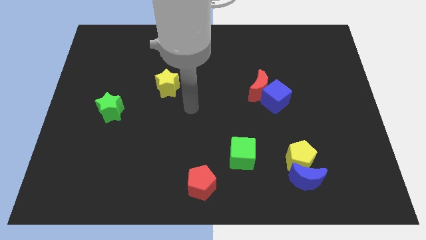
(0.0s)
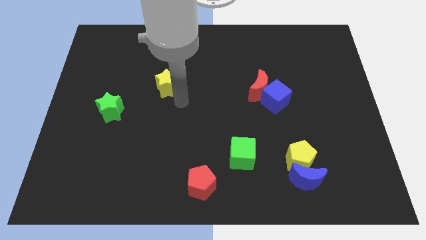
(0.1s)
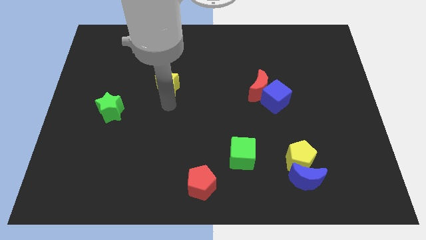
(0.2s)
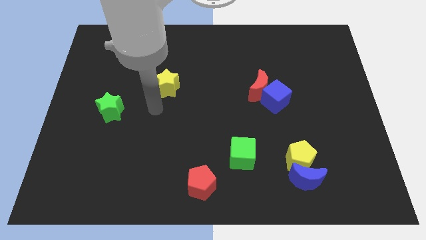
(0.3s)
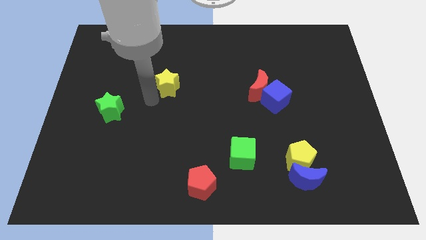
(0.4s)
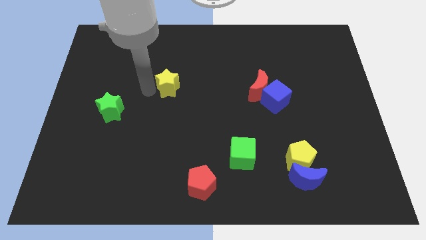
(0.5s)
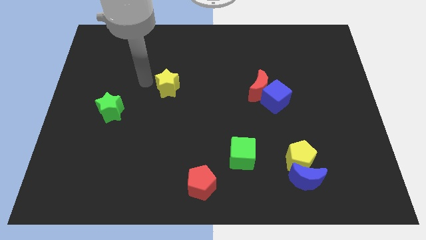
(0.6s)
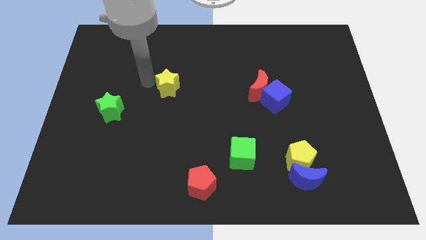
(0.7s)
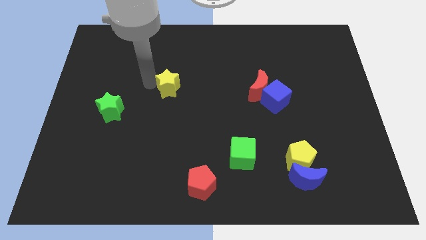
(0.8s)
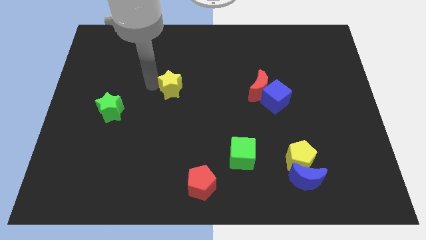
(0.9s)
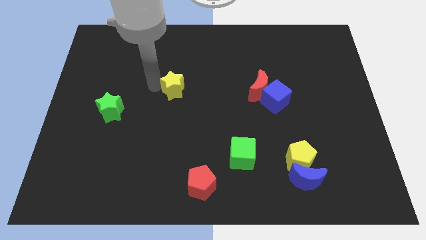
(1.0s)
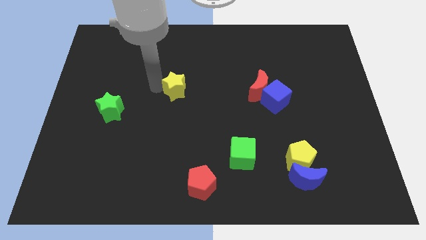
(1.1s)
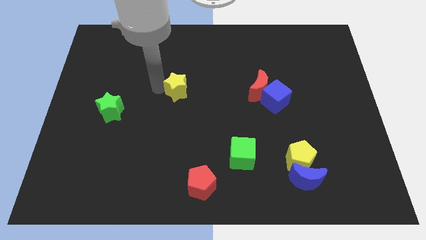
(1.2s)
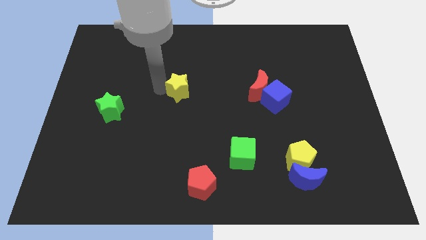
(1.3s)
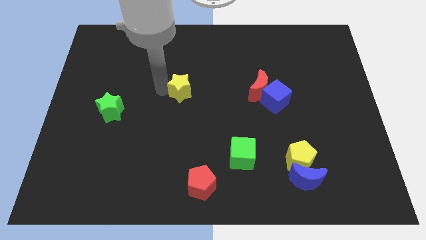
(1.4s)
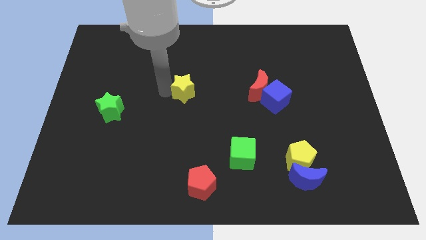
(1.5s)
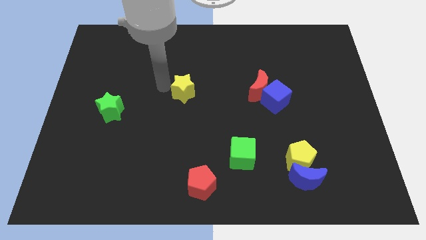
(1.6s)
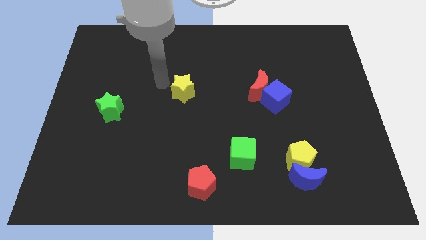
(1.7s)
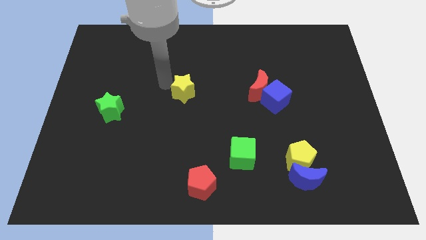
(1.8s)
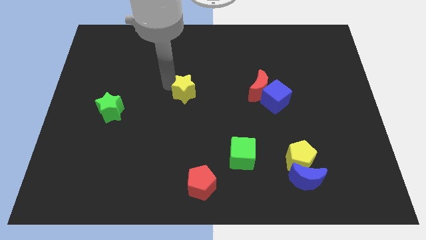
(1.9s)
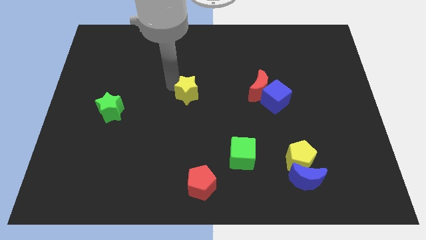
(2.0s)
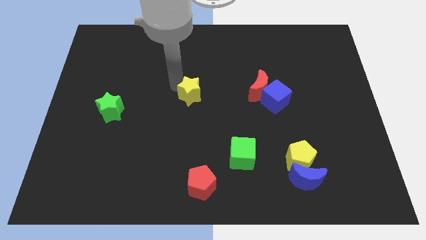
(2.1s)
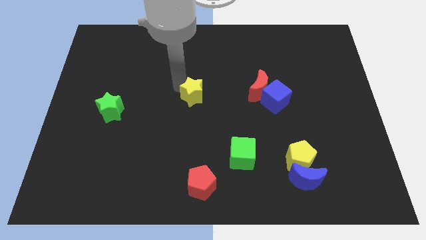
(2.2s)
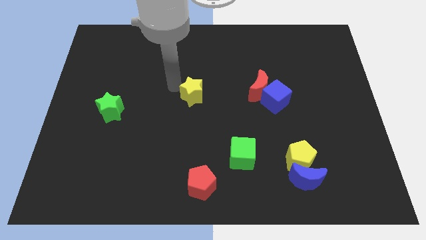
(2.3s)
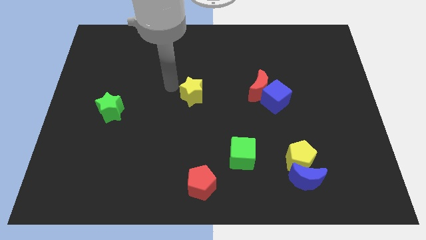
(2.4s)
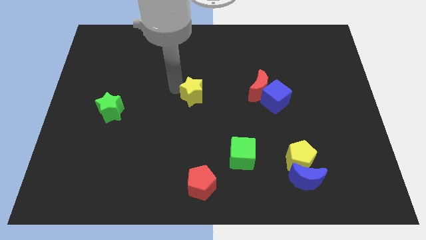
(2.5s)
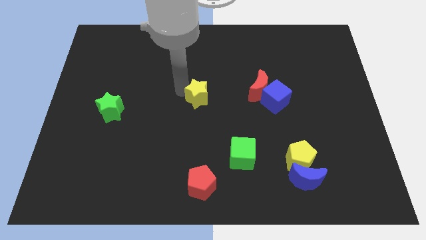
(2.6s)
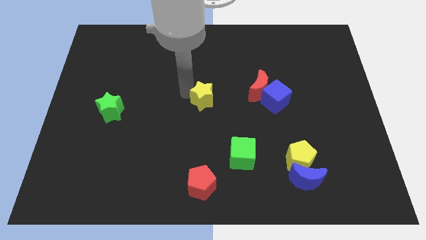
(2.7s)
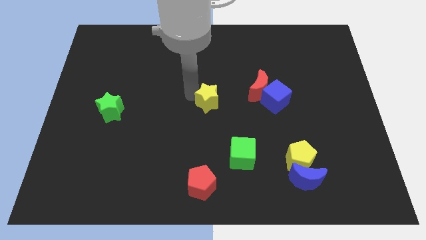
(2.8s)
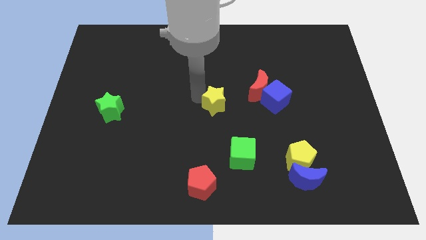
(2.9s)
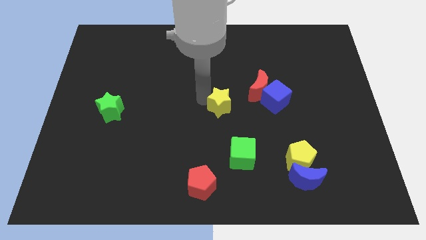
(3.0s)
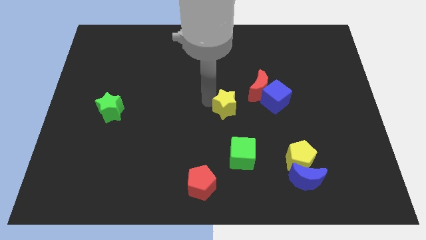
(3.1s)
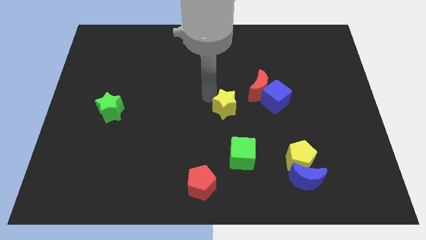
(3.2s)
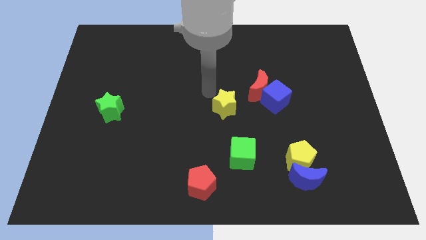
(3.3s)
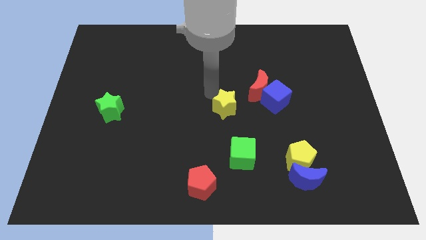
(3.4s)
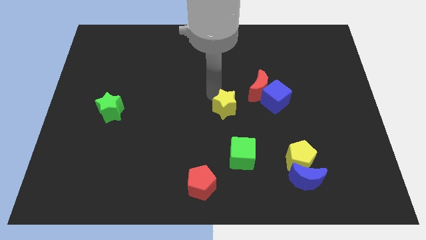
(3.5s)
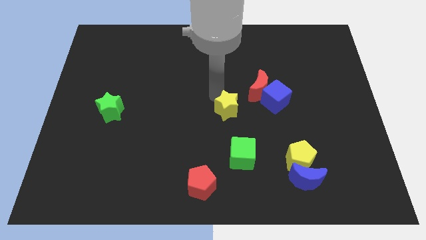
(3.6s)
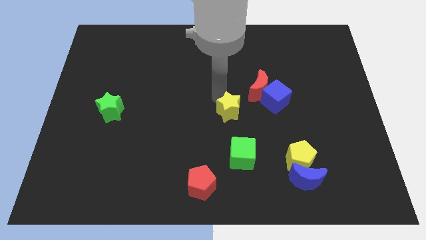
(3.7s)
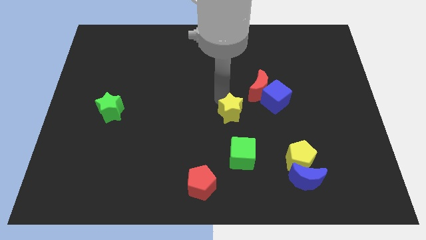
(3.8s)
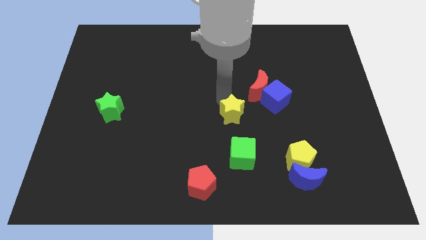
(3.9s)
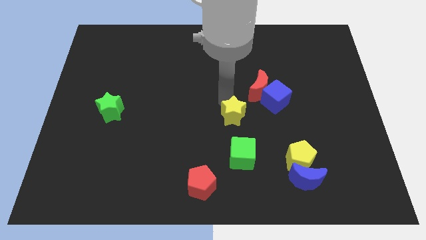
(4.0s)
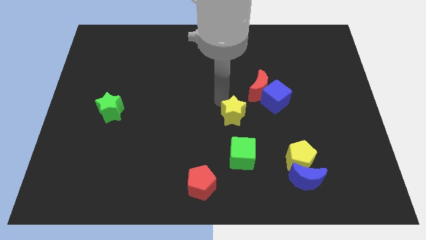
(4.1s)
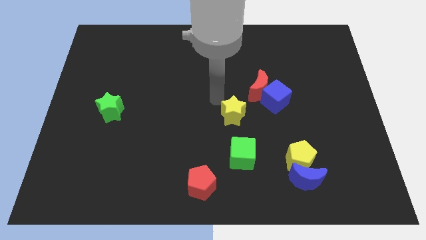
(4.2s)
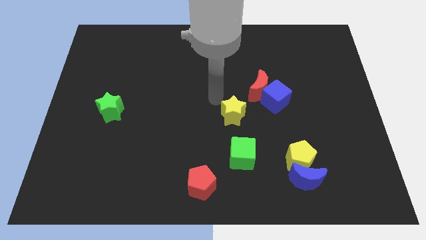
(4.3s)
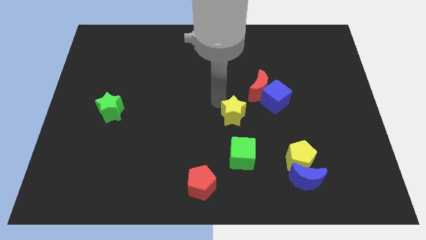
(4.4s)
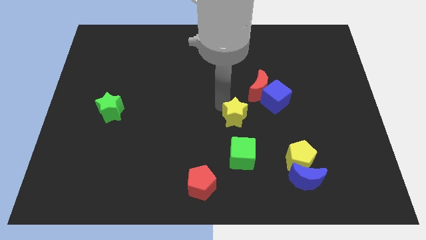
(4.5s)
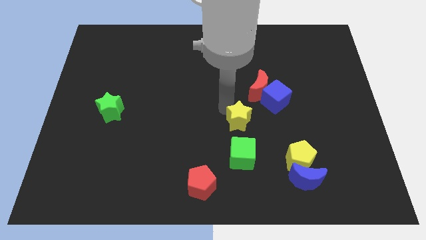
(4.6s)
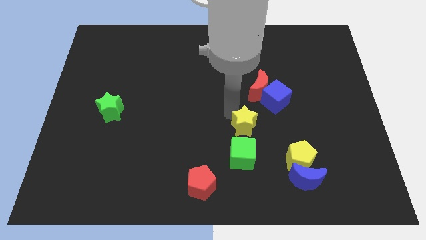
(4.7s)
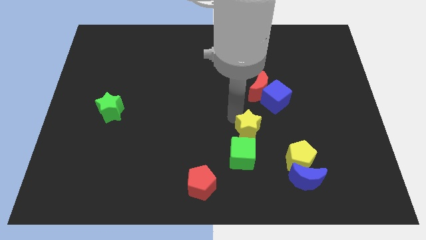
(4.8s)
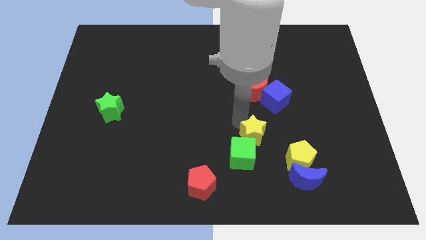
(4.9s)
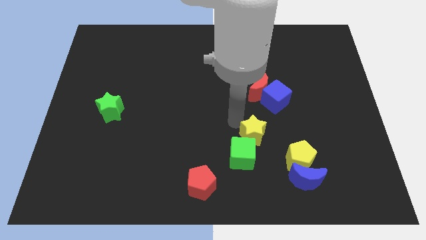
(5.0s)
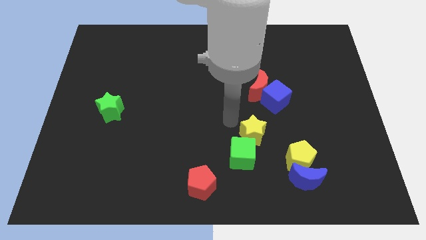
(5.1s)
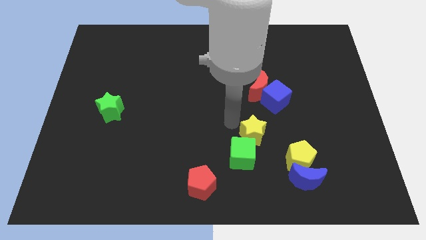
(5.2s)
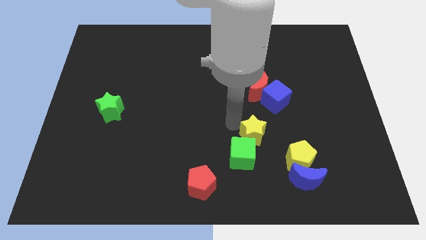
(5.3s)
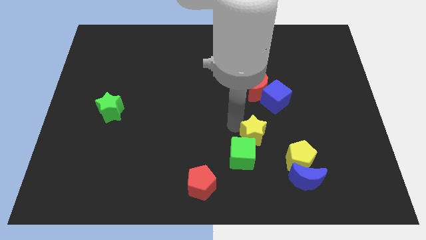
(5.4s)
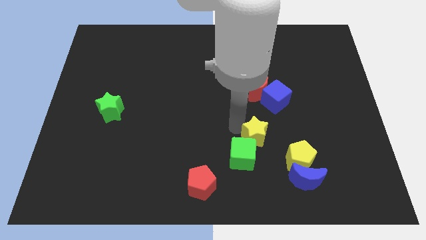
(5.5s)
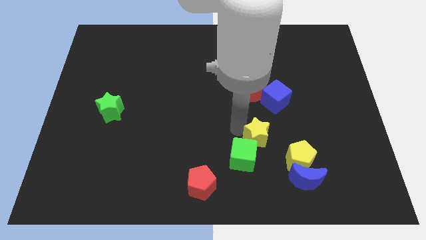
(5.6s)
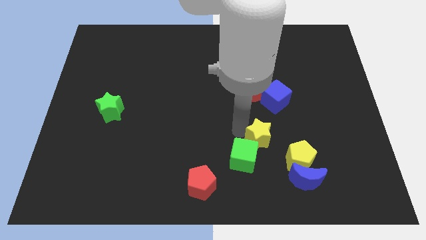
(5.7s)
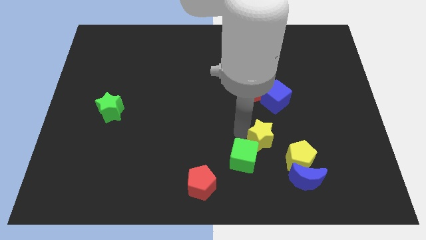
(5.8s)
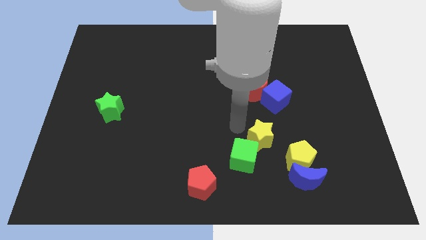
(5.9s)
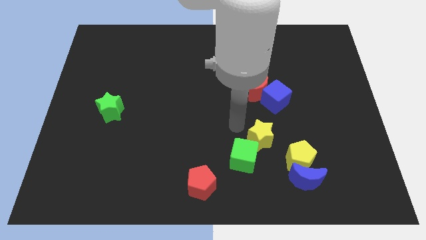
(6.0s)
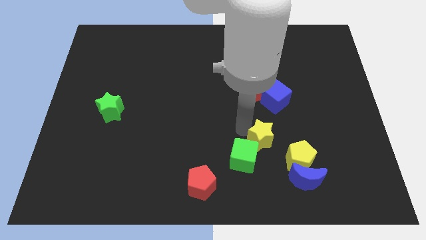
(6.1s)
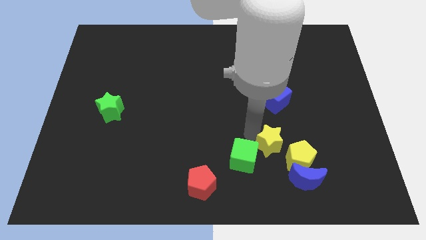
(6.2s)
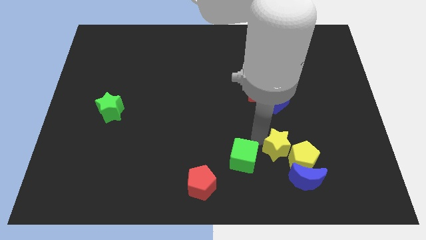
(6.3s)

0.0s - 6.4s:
move the yellow star towards the yellow pentagon

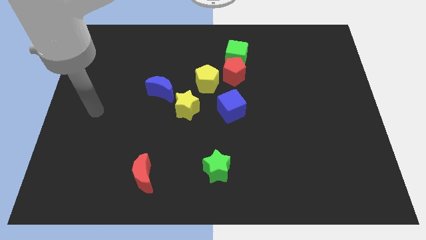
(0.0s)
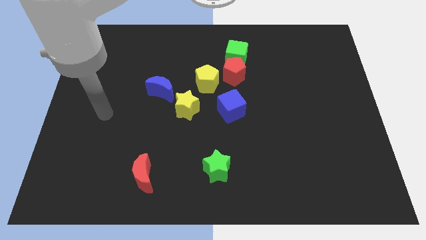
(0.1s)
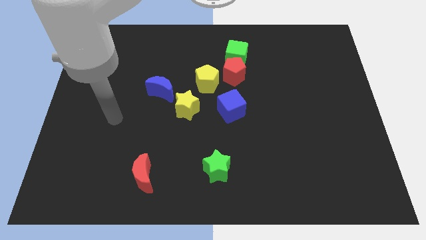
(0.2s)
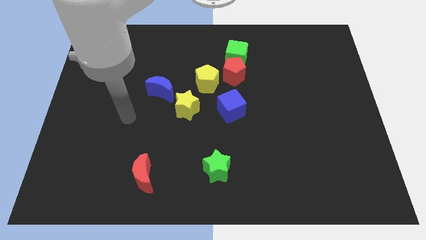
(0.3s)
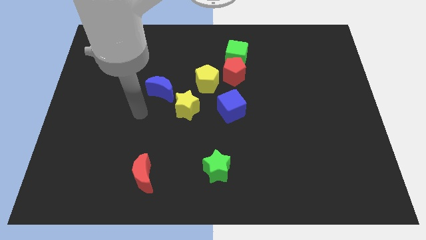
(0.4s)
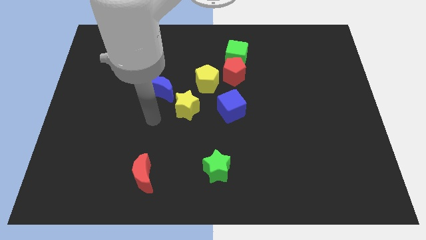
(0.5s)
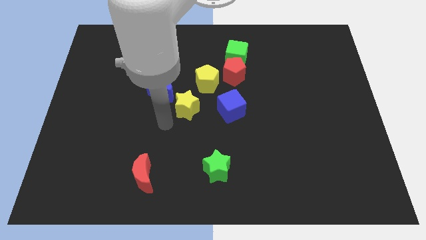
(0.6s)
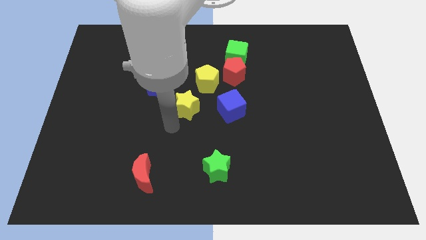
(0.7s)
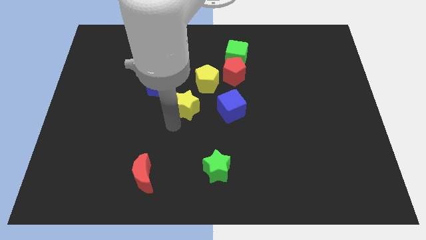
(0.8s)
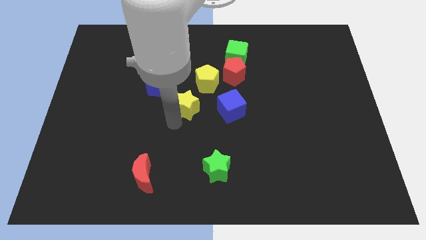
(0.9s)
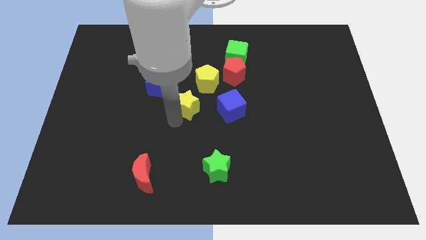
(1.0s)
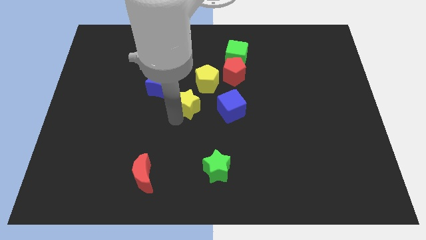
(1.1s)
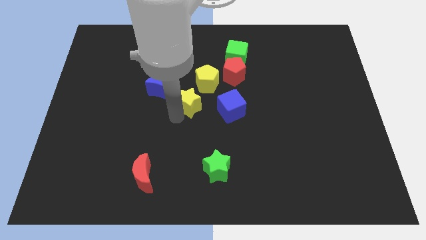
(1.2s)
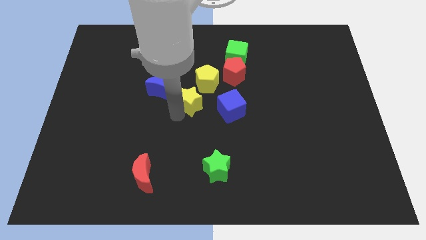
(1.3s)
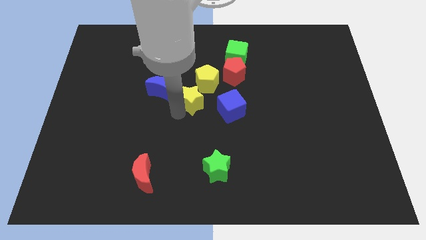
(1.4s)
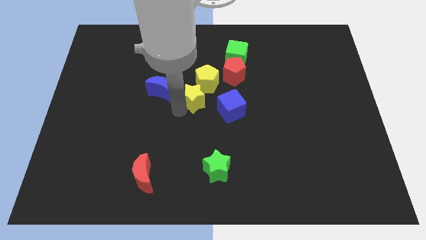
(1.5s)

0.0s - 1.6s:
push the yellow star to the yellow pentagon
